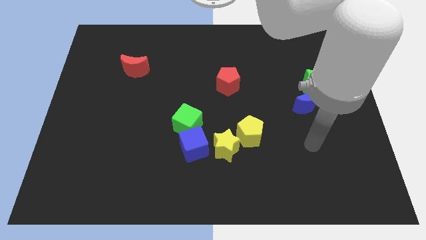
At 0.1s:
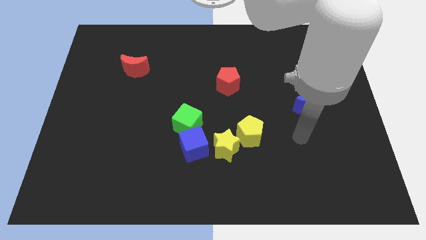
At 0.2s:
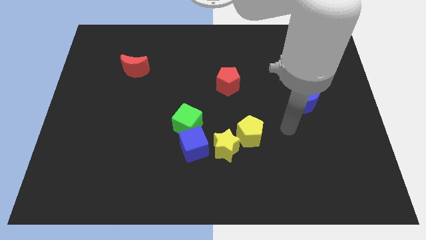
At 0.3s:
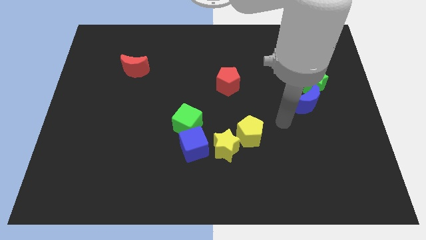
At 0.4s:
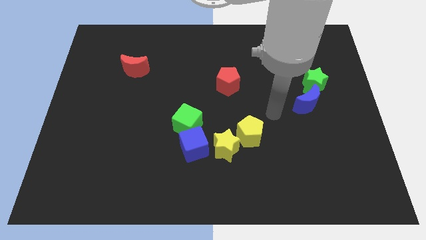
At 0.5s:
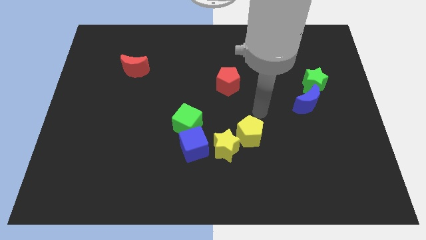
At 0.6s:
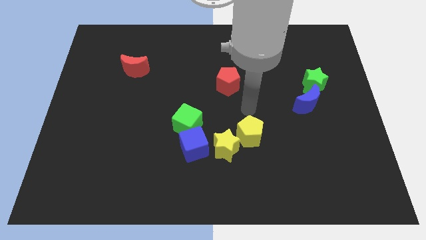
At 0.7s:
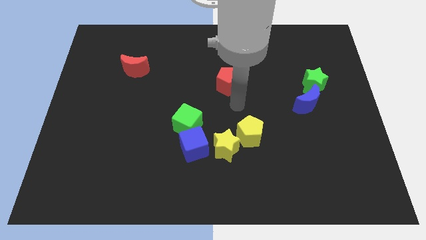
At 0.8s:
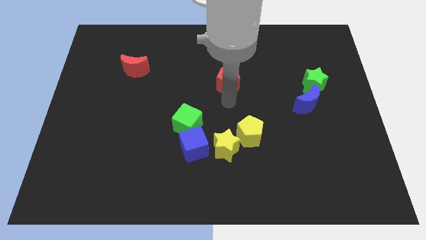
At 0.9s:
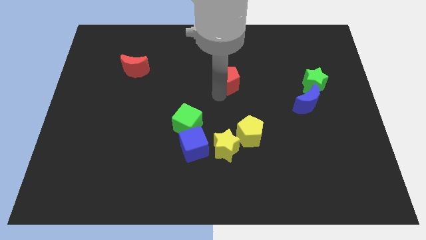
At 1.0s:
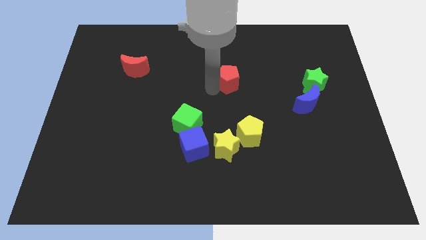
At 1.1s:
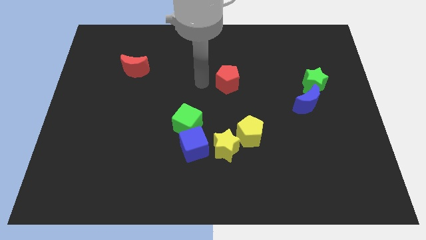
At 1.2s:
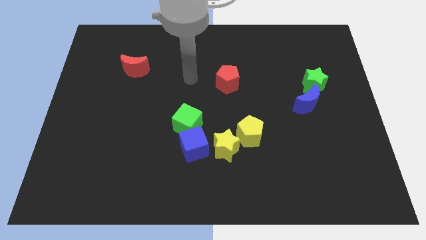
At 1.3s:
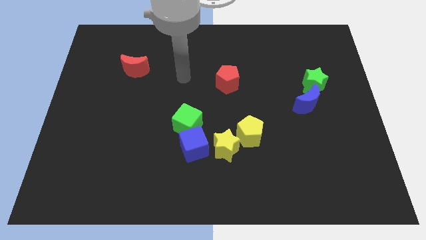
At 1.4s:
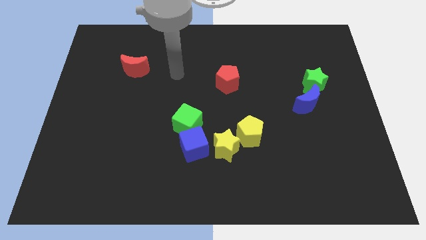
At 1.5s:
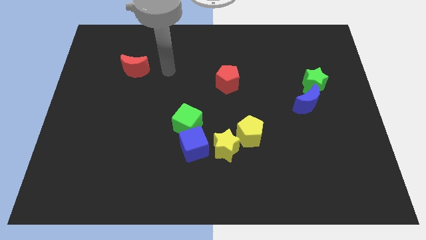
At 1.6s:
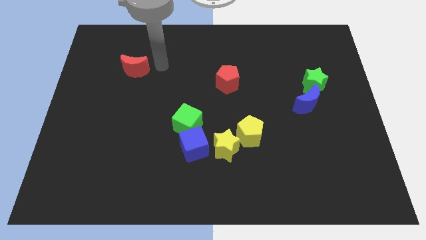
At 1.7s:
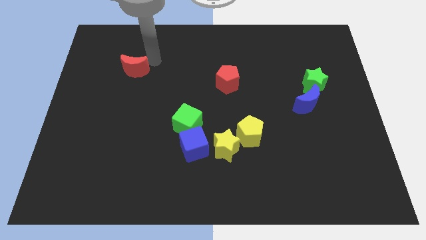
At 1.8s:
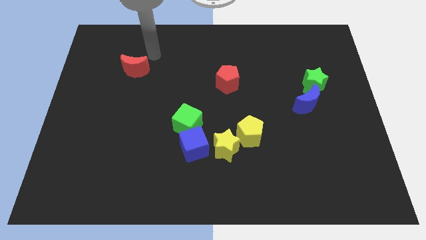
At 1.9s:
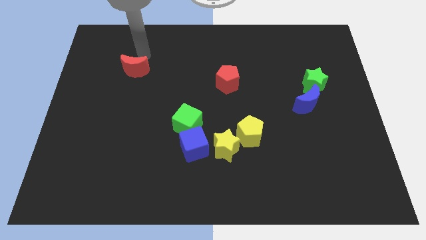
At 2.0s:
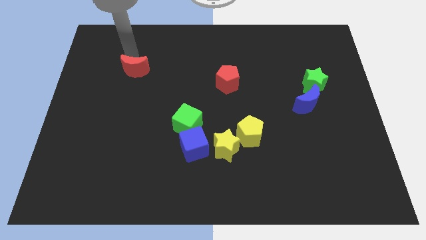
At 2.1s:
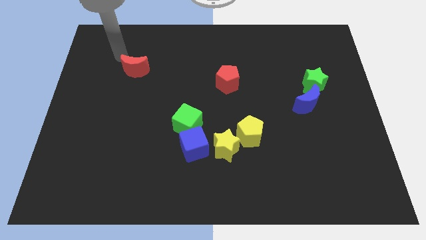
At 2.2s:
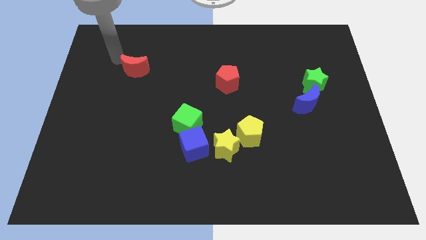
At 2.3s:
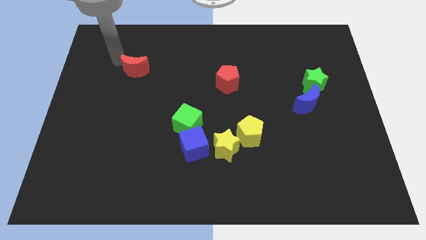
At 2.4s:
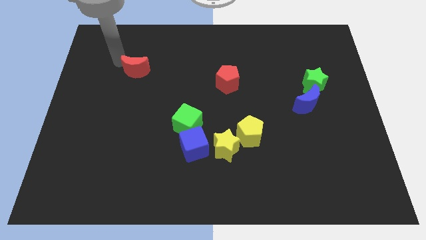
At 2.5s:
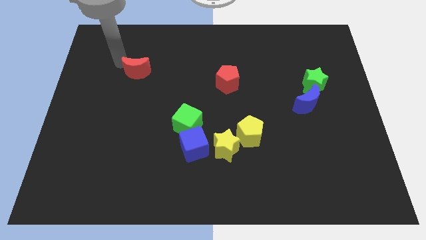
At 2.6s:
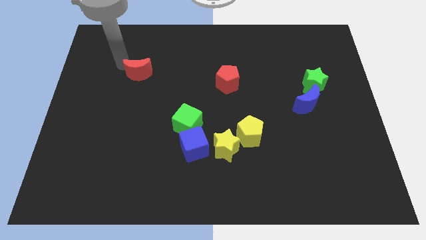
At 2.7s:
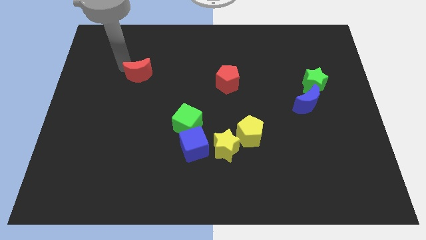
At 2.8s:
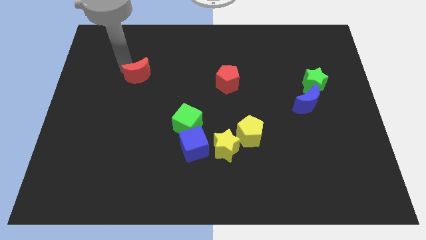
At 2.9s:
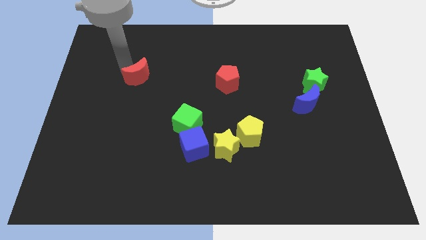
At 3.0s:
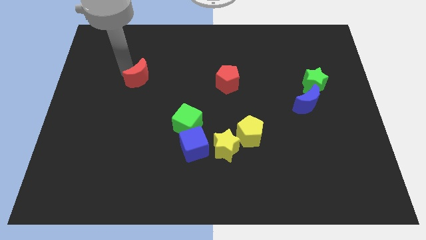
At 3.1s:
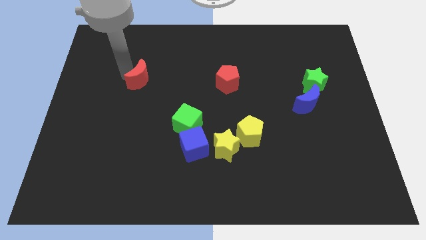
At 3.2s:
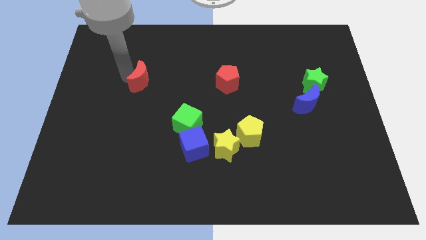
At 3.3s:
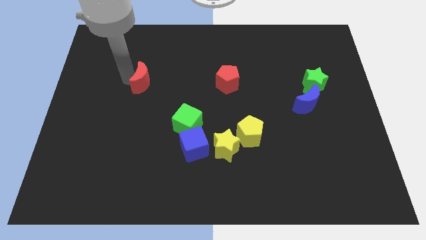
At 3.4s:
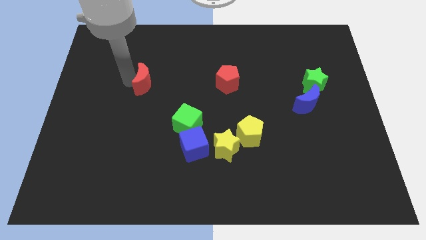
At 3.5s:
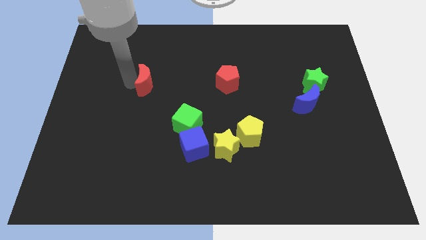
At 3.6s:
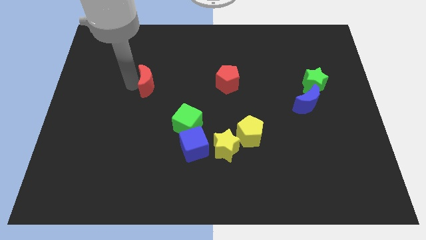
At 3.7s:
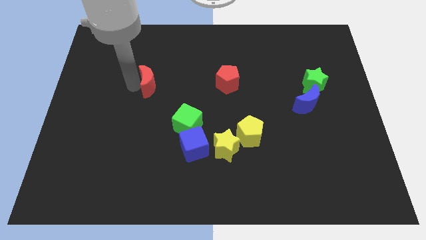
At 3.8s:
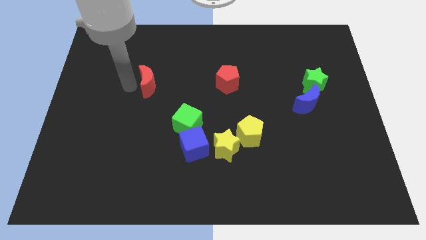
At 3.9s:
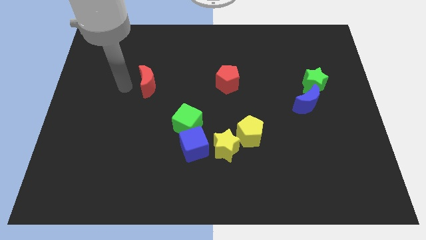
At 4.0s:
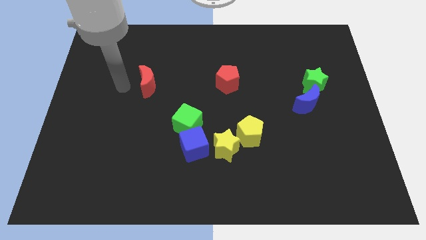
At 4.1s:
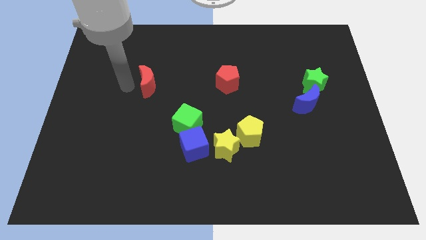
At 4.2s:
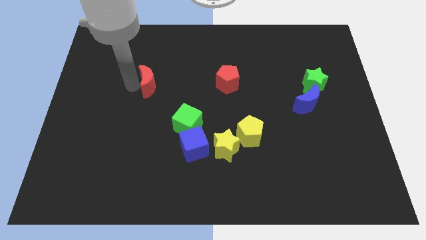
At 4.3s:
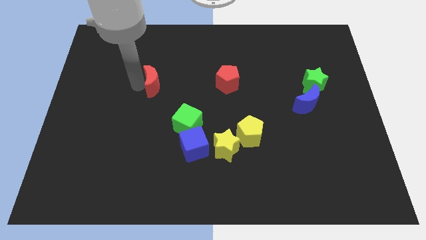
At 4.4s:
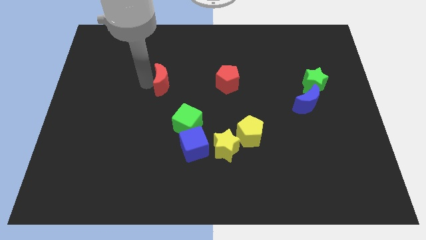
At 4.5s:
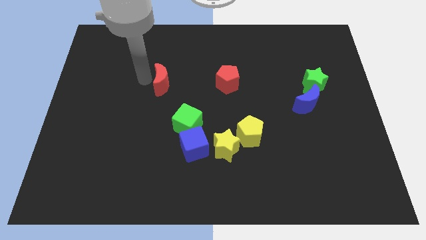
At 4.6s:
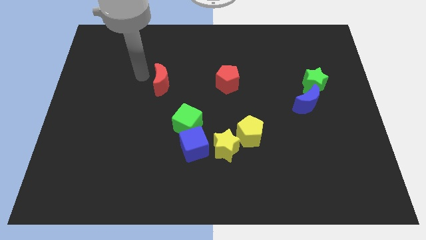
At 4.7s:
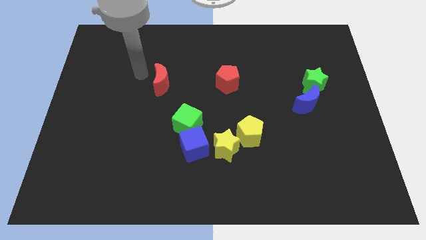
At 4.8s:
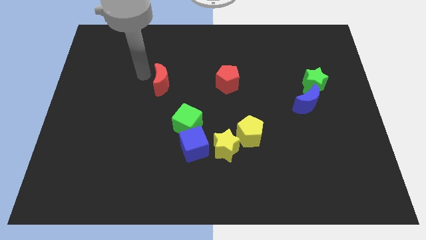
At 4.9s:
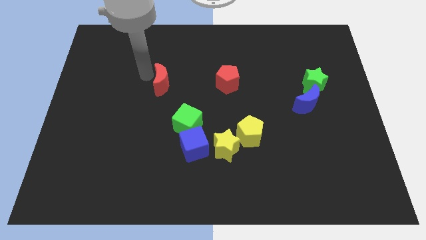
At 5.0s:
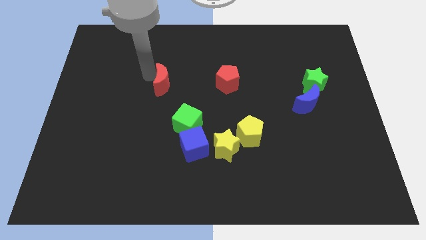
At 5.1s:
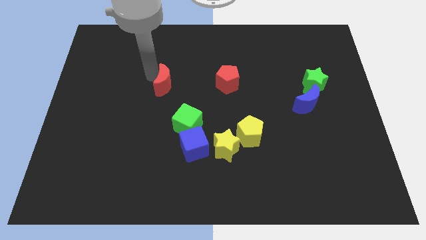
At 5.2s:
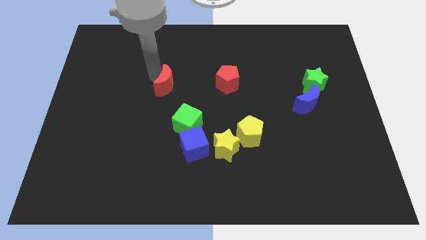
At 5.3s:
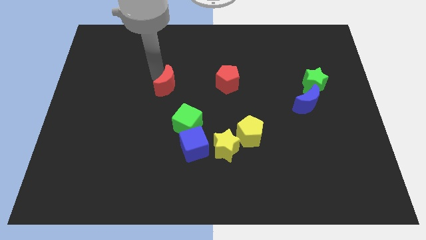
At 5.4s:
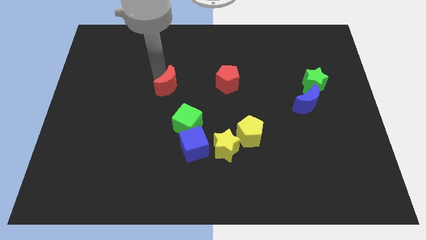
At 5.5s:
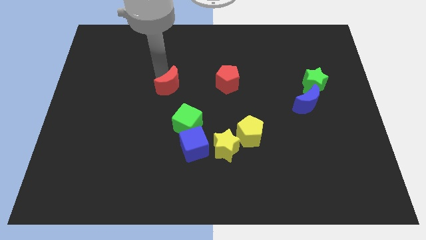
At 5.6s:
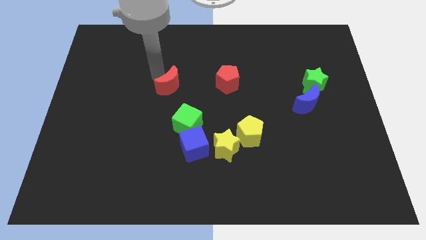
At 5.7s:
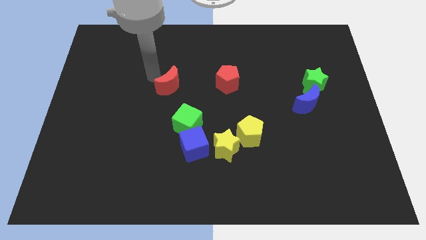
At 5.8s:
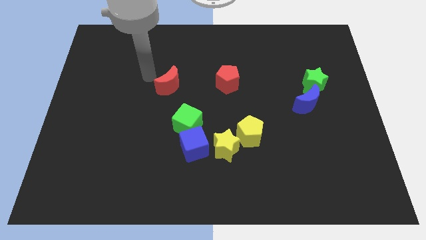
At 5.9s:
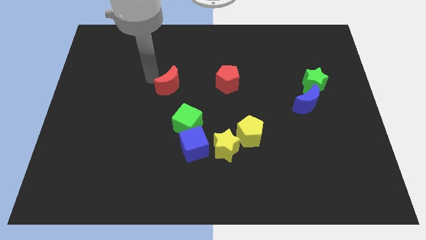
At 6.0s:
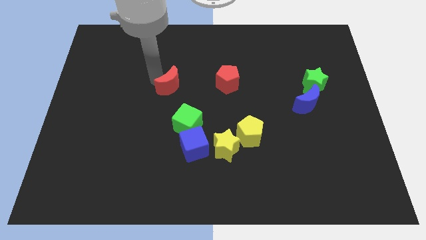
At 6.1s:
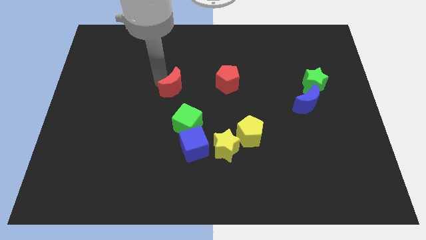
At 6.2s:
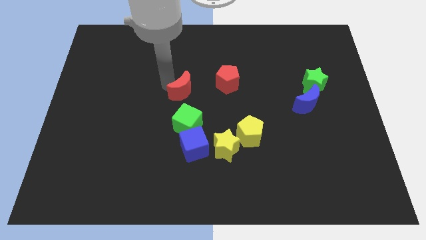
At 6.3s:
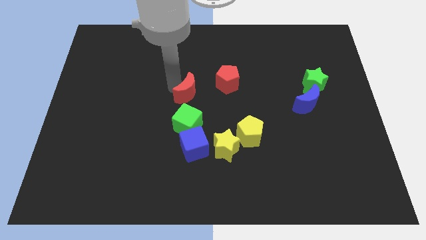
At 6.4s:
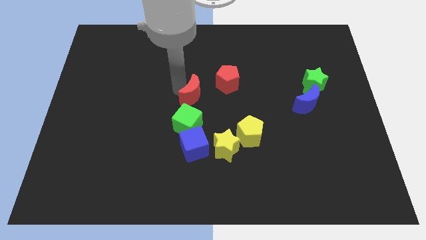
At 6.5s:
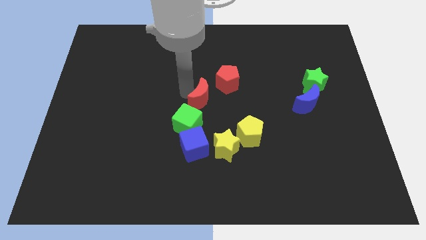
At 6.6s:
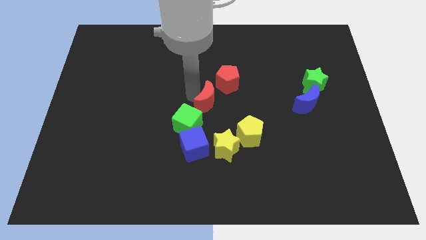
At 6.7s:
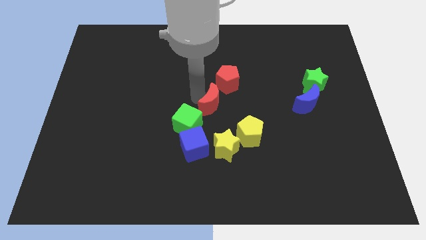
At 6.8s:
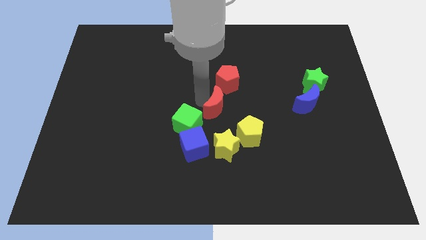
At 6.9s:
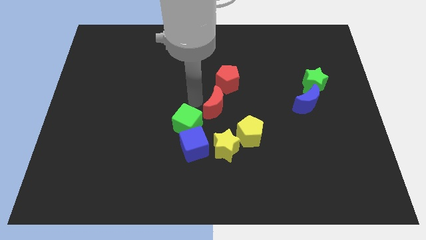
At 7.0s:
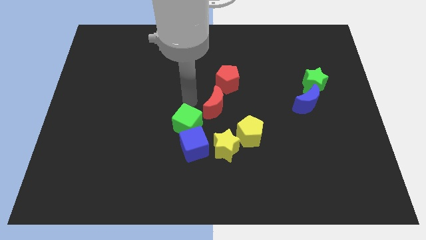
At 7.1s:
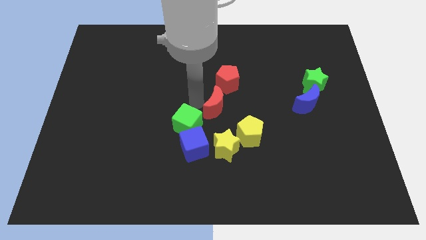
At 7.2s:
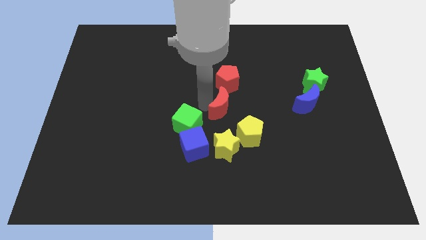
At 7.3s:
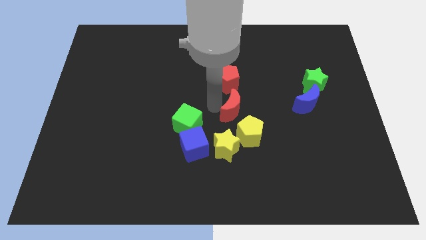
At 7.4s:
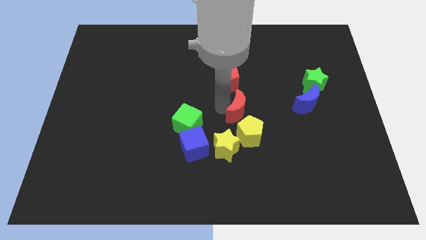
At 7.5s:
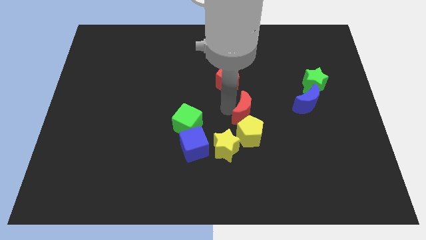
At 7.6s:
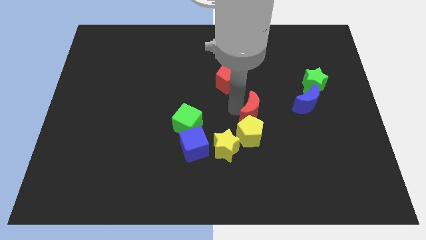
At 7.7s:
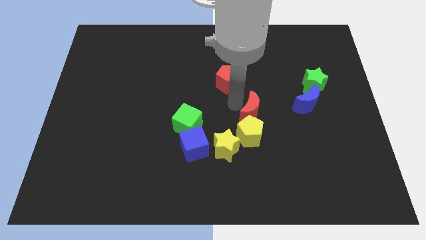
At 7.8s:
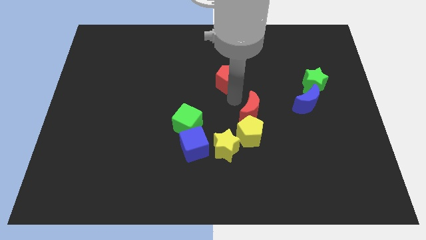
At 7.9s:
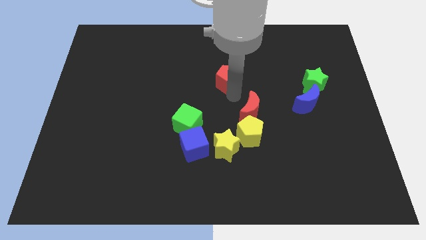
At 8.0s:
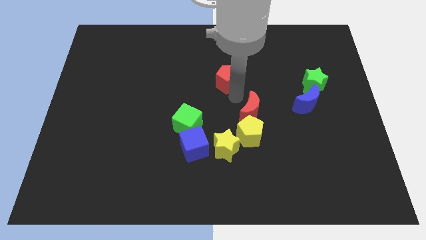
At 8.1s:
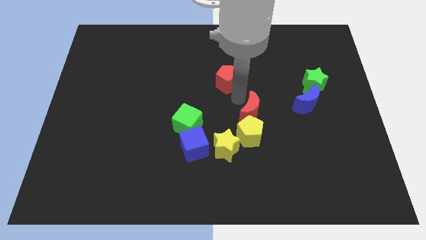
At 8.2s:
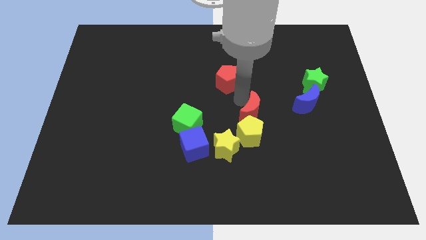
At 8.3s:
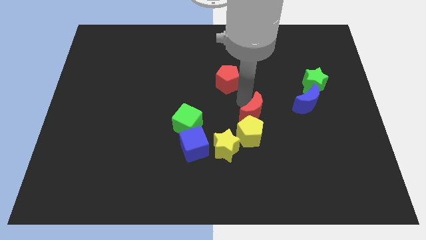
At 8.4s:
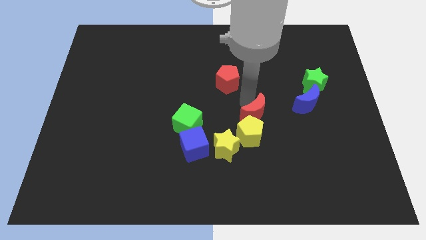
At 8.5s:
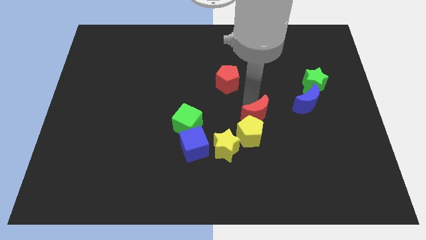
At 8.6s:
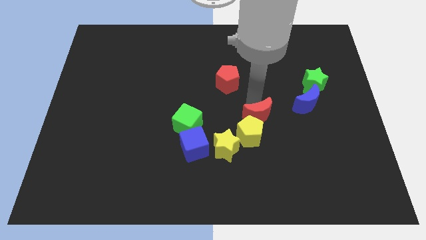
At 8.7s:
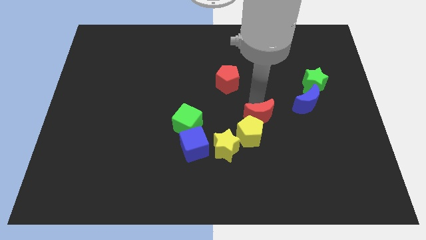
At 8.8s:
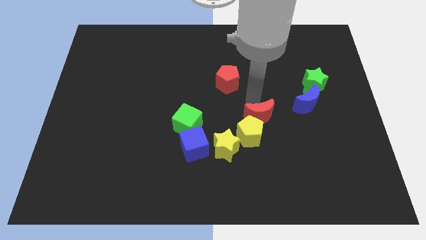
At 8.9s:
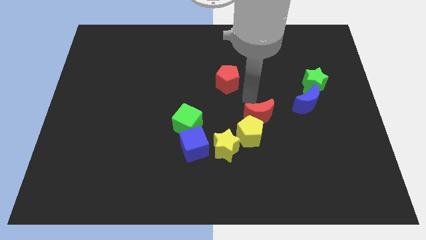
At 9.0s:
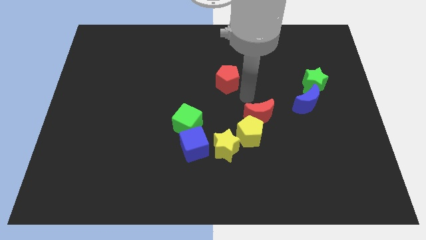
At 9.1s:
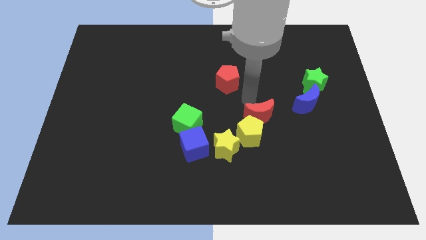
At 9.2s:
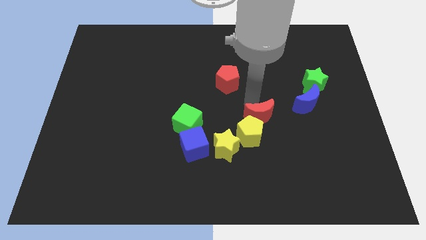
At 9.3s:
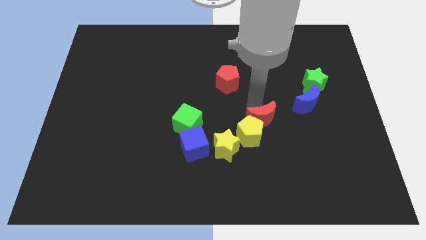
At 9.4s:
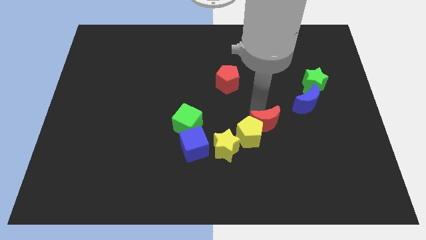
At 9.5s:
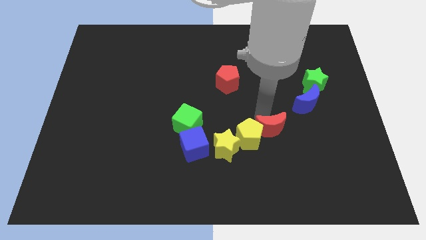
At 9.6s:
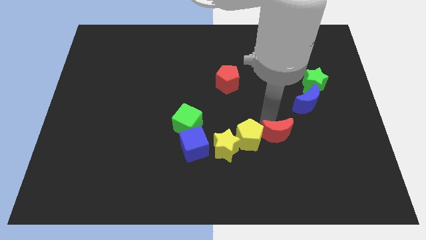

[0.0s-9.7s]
put the red moon to the right of the yellow star
